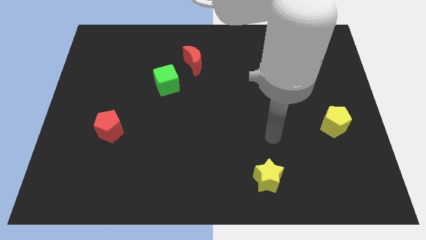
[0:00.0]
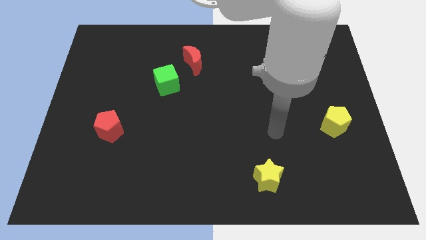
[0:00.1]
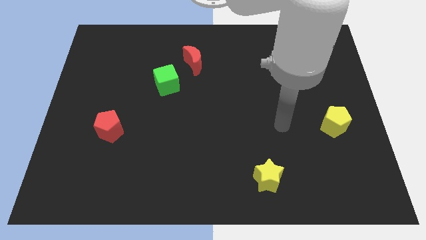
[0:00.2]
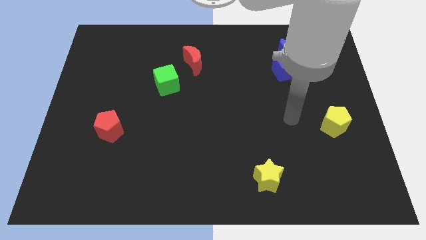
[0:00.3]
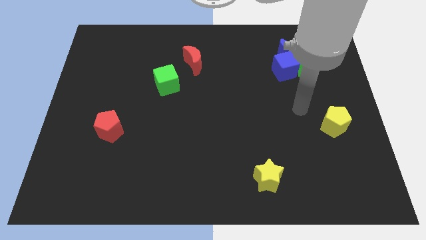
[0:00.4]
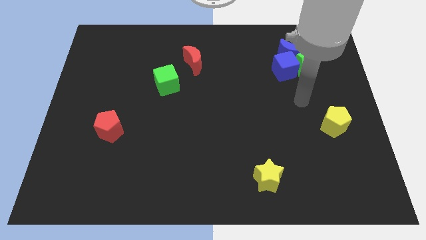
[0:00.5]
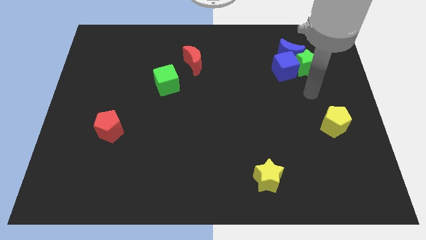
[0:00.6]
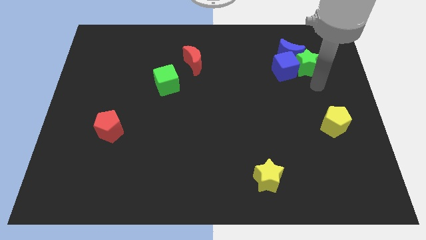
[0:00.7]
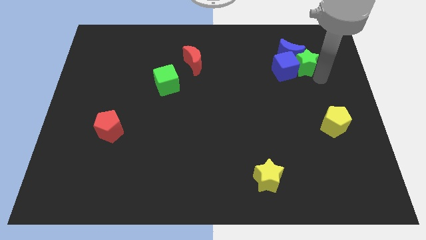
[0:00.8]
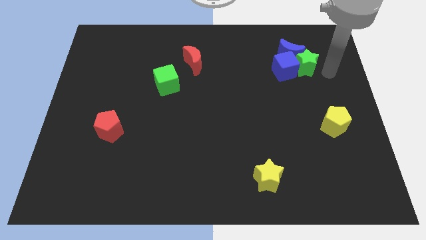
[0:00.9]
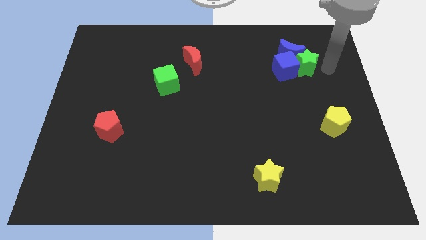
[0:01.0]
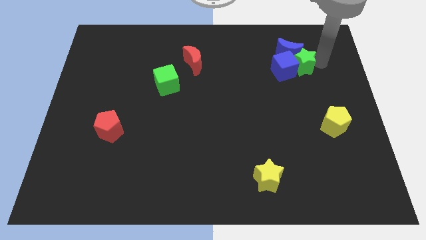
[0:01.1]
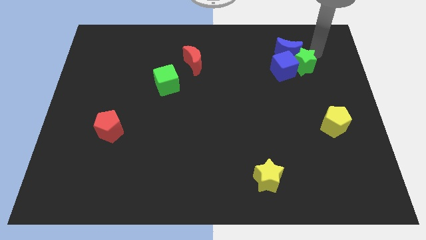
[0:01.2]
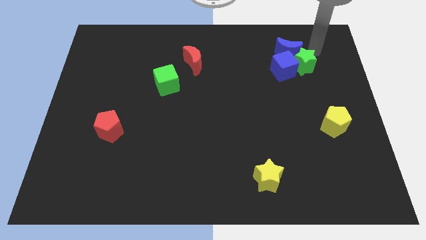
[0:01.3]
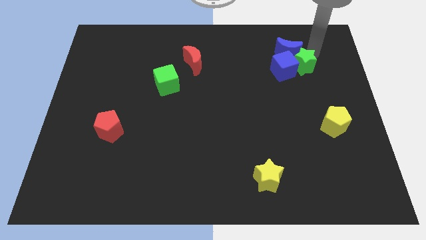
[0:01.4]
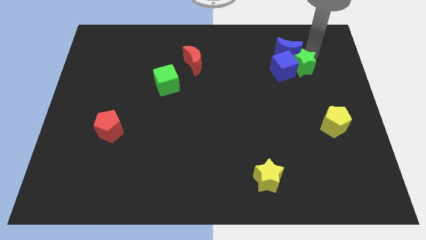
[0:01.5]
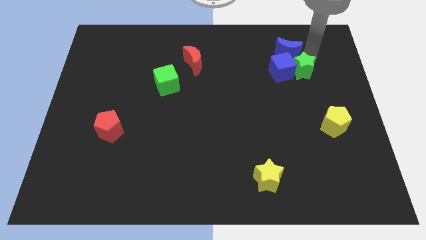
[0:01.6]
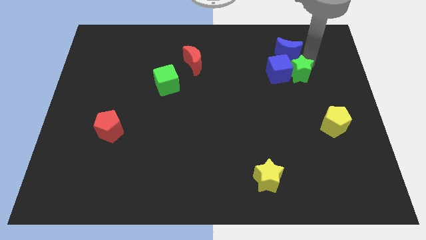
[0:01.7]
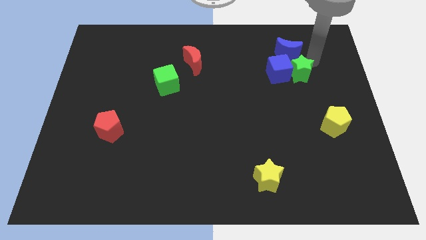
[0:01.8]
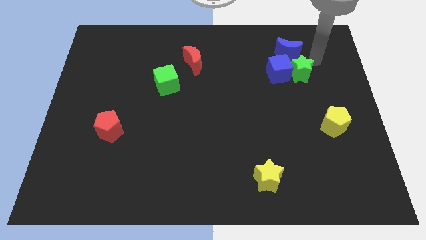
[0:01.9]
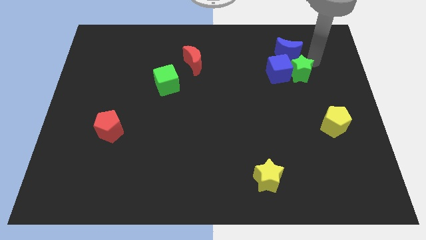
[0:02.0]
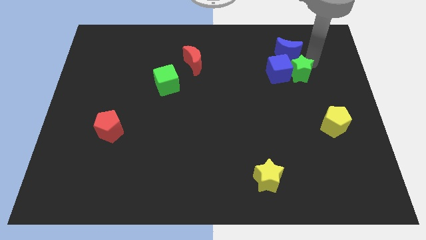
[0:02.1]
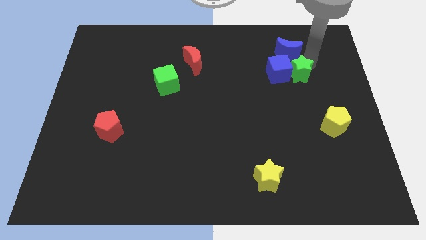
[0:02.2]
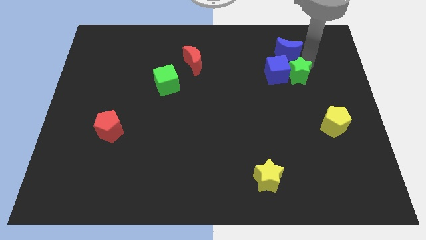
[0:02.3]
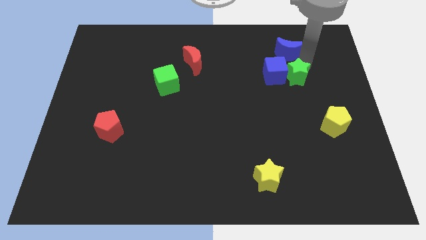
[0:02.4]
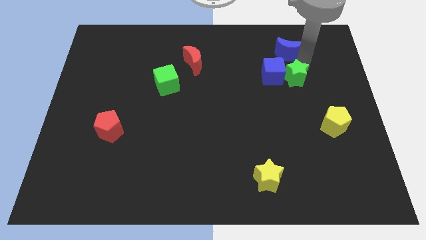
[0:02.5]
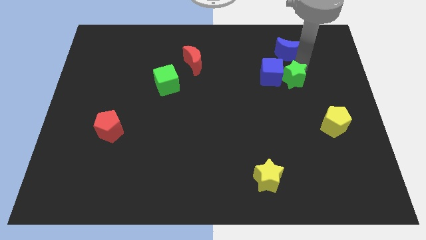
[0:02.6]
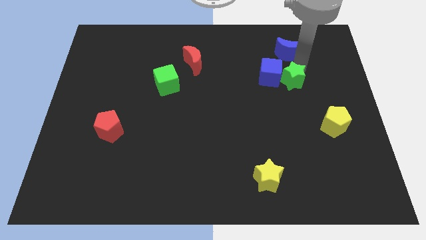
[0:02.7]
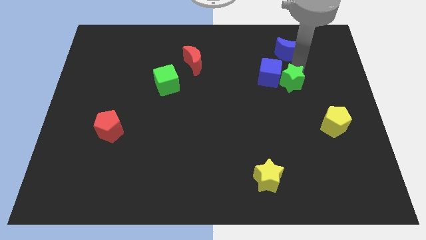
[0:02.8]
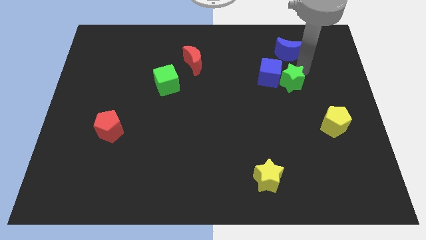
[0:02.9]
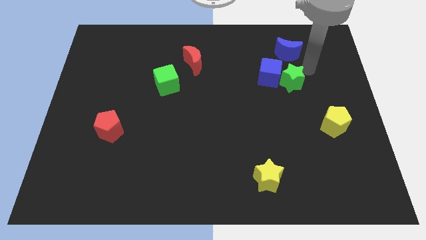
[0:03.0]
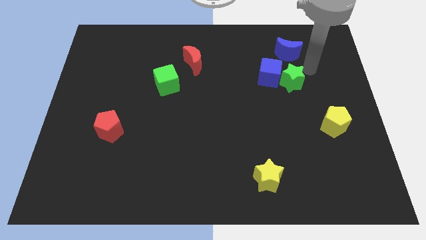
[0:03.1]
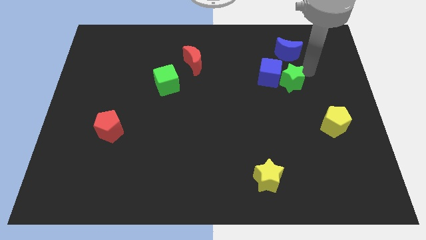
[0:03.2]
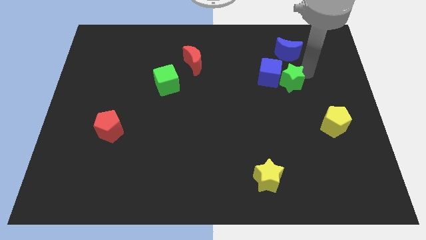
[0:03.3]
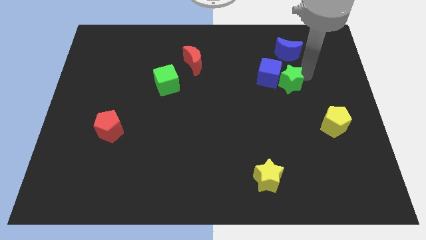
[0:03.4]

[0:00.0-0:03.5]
move the green star diagonally down and left somewhat

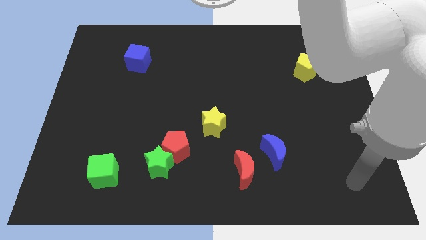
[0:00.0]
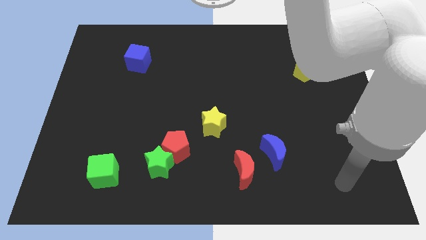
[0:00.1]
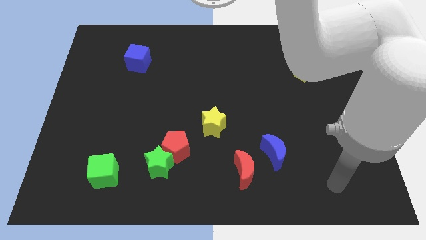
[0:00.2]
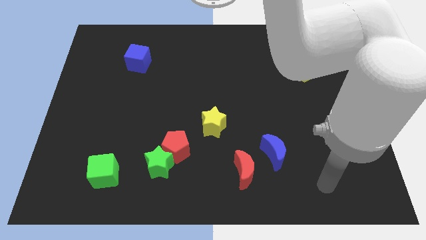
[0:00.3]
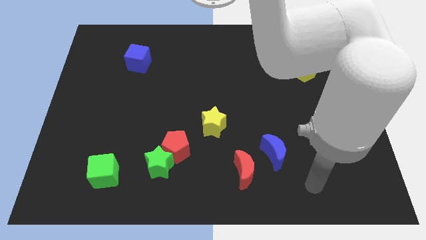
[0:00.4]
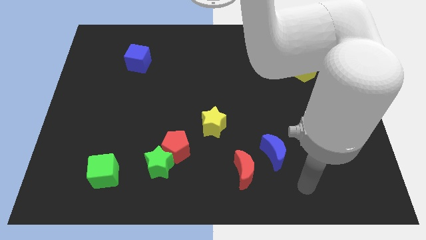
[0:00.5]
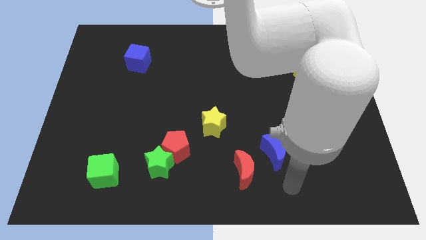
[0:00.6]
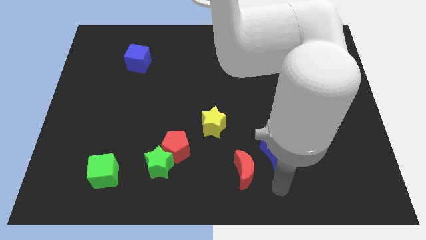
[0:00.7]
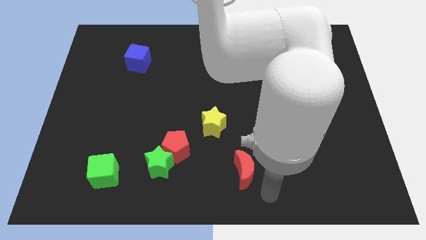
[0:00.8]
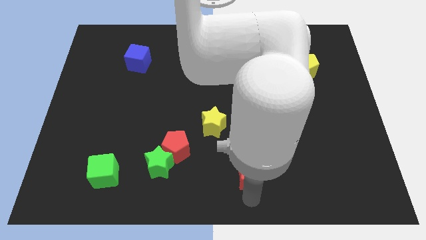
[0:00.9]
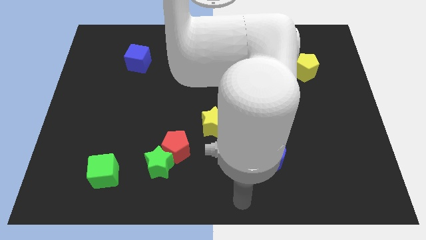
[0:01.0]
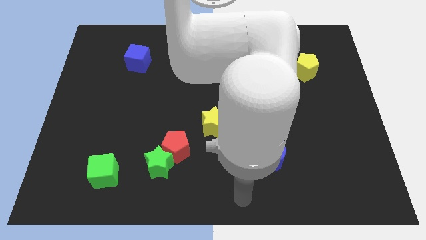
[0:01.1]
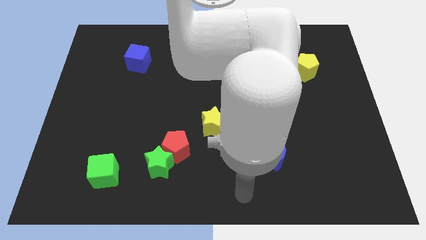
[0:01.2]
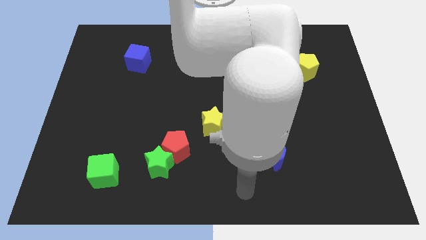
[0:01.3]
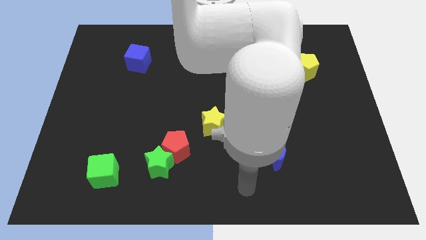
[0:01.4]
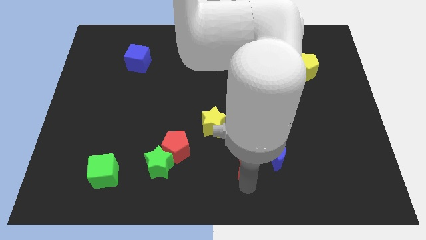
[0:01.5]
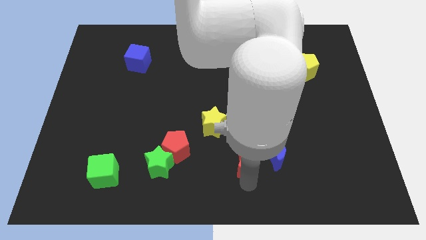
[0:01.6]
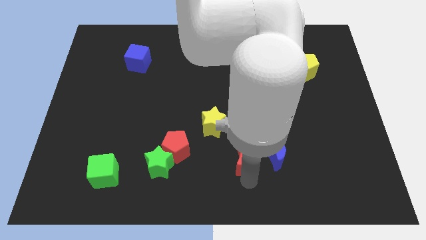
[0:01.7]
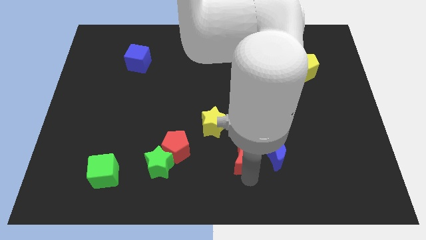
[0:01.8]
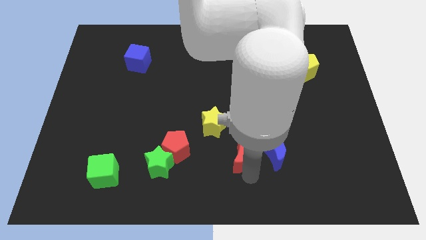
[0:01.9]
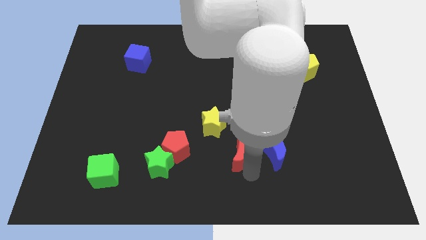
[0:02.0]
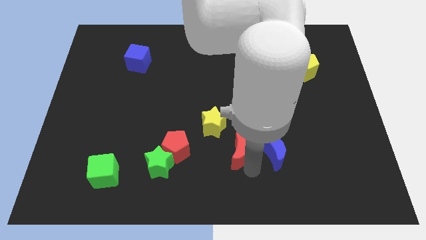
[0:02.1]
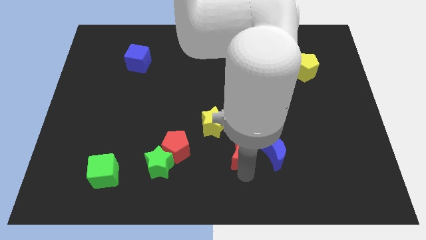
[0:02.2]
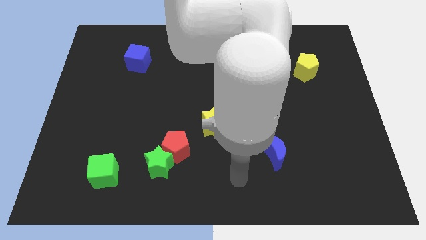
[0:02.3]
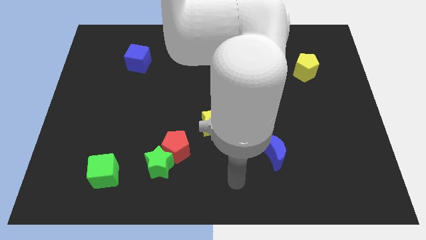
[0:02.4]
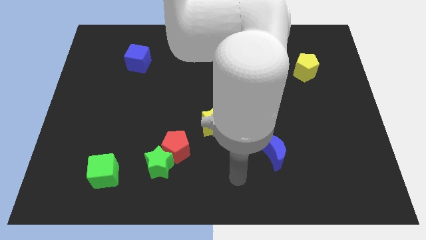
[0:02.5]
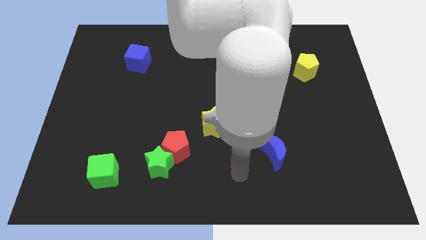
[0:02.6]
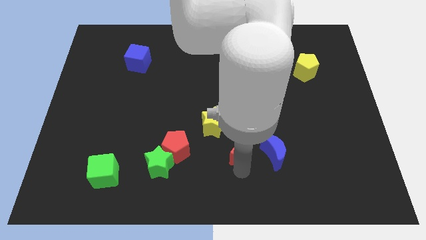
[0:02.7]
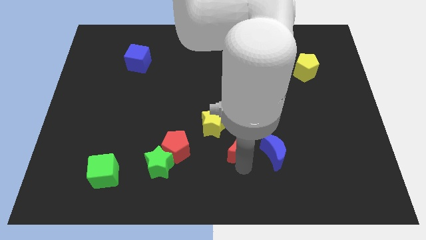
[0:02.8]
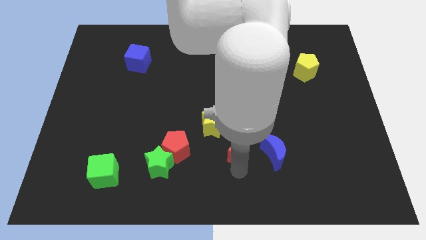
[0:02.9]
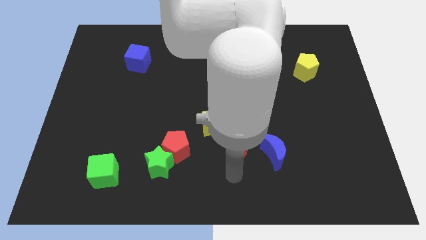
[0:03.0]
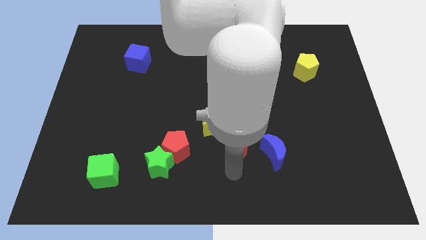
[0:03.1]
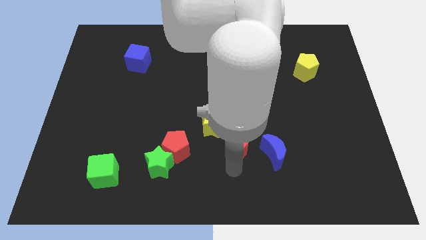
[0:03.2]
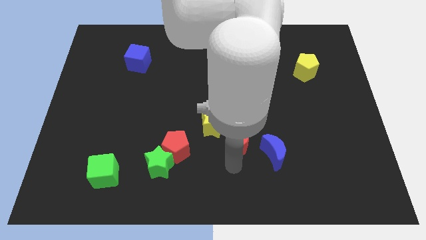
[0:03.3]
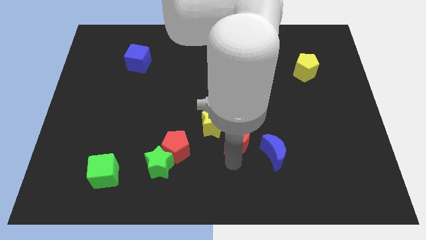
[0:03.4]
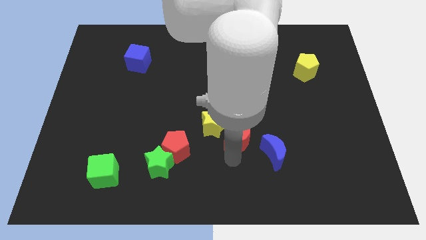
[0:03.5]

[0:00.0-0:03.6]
push the red moon up a little

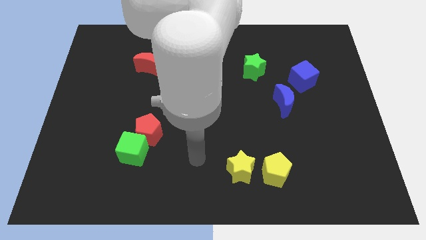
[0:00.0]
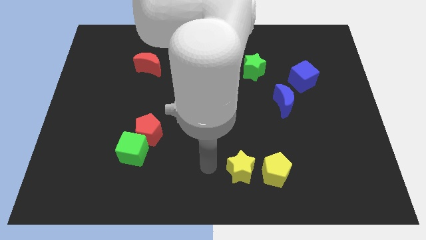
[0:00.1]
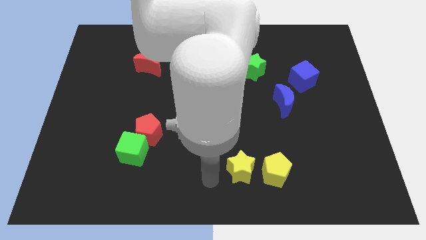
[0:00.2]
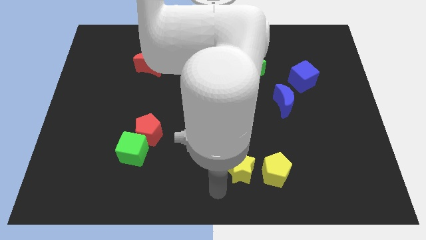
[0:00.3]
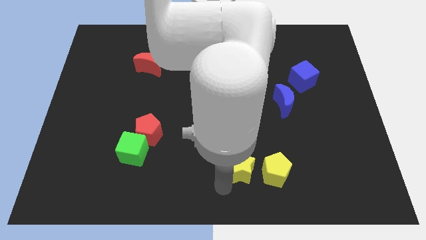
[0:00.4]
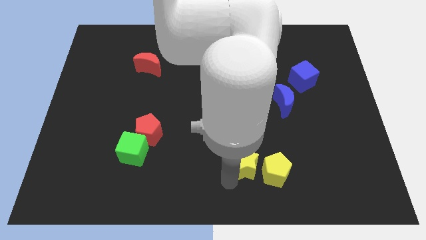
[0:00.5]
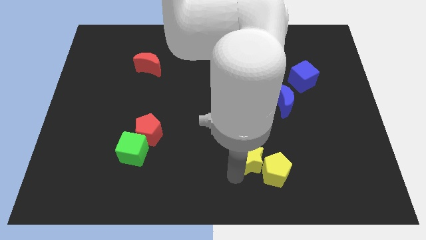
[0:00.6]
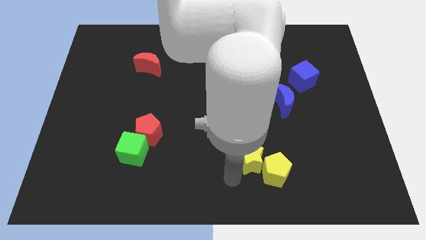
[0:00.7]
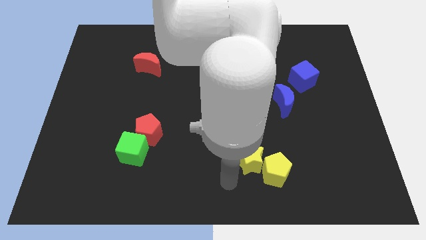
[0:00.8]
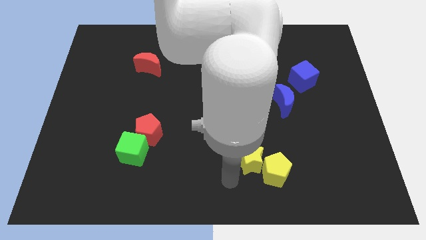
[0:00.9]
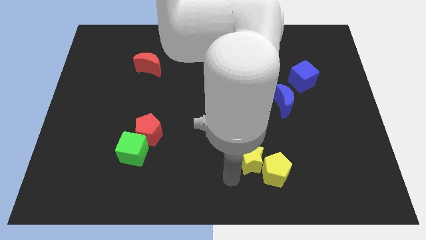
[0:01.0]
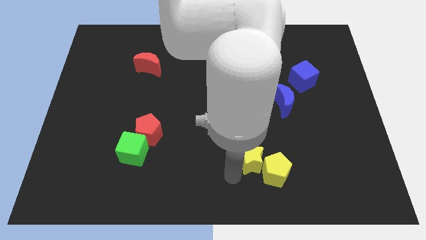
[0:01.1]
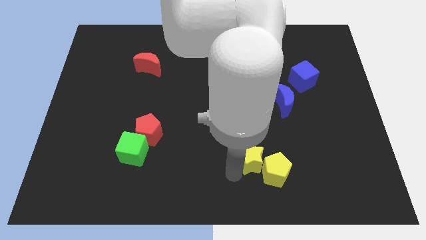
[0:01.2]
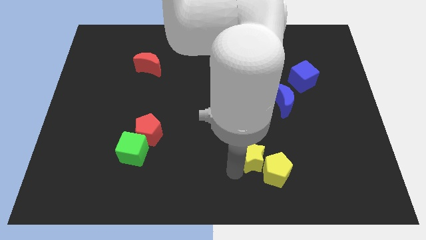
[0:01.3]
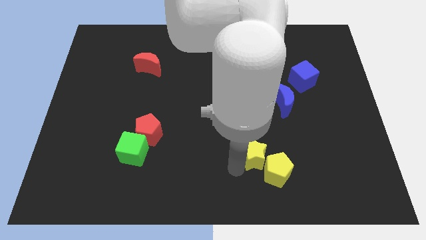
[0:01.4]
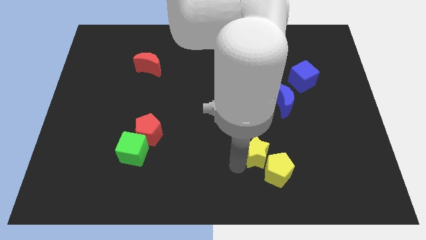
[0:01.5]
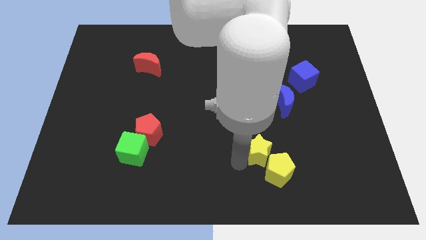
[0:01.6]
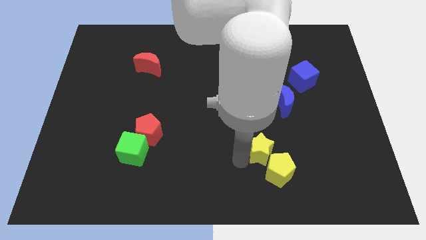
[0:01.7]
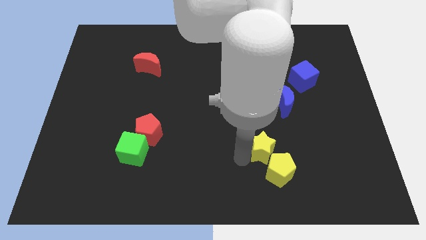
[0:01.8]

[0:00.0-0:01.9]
slightly push the yellow star up and right diagonally
